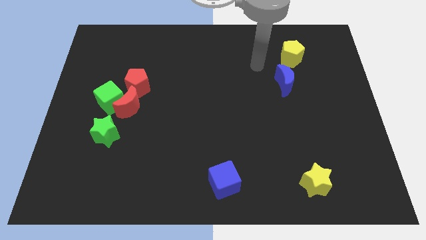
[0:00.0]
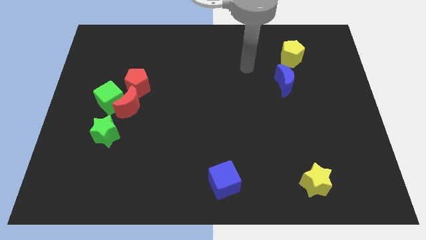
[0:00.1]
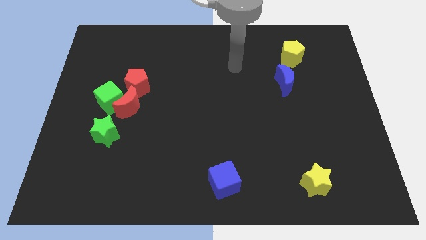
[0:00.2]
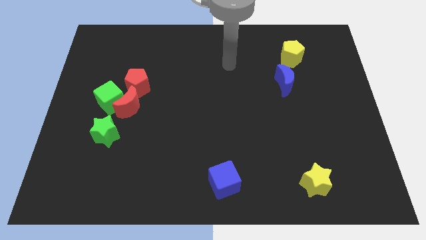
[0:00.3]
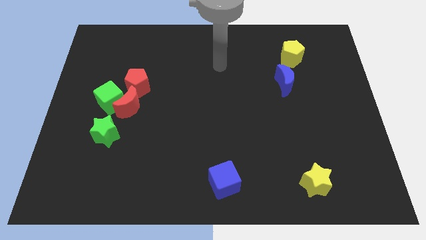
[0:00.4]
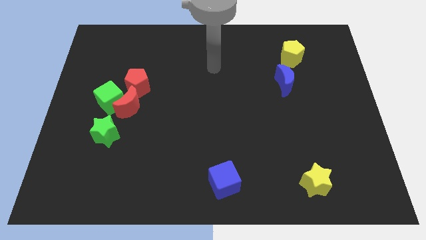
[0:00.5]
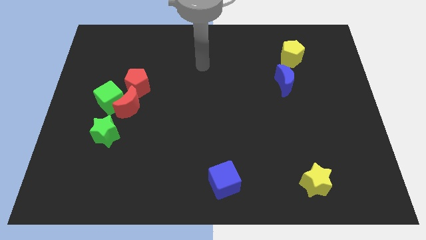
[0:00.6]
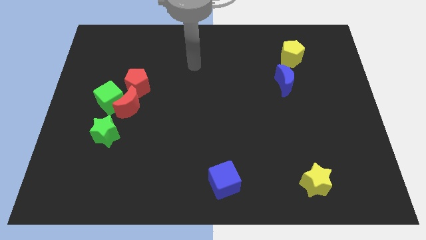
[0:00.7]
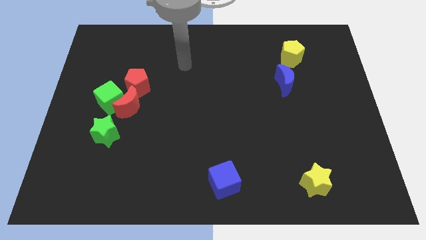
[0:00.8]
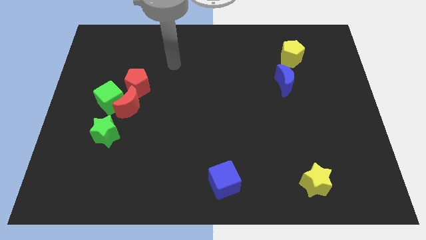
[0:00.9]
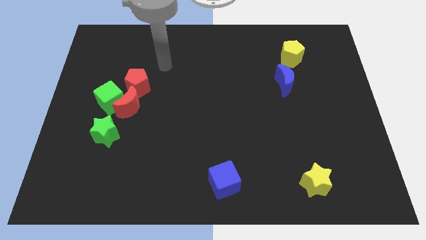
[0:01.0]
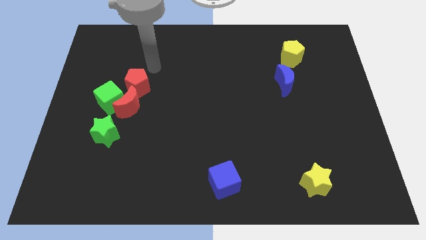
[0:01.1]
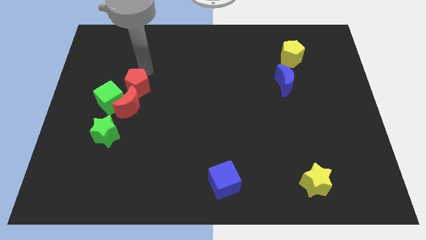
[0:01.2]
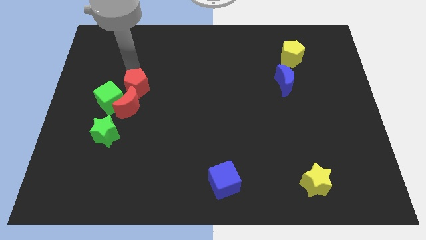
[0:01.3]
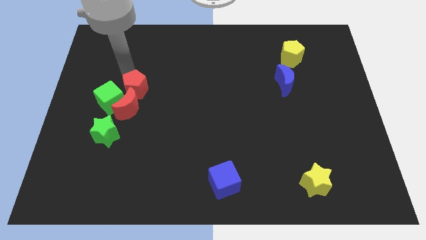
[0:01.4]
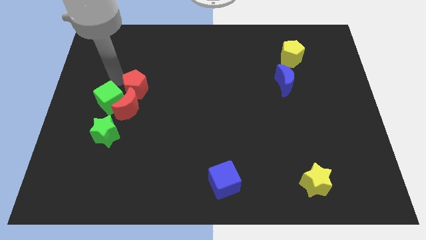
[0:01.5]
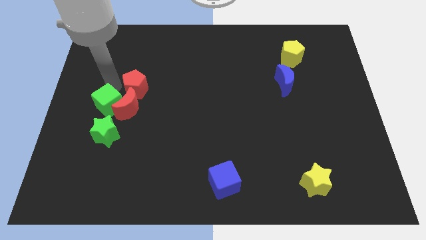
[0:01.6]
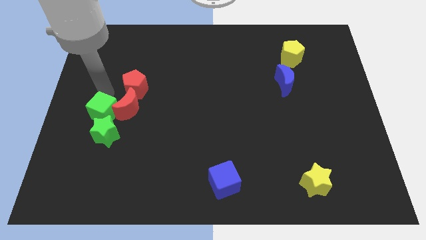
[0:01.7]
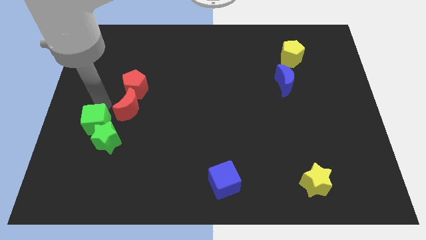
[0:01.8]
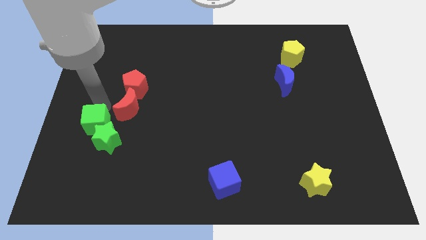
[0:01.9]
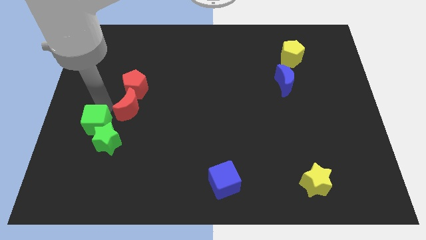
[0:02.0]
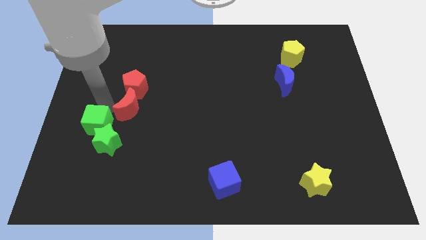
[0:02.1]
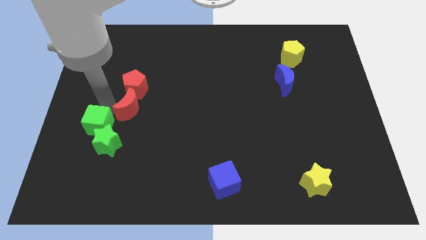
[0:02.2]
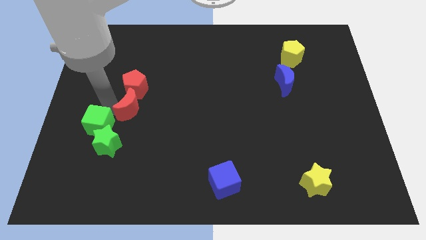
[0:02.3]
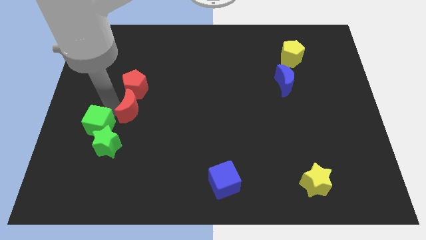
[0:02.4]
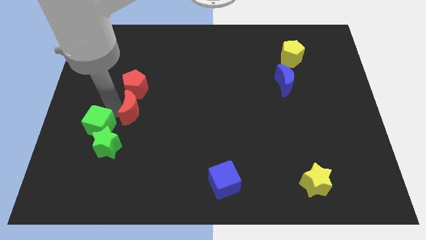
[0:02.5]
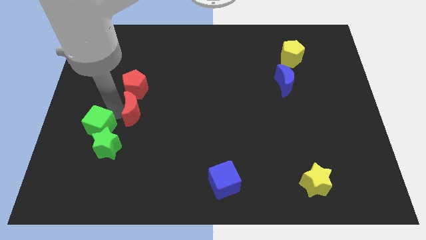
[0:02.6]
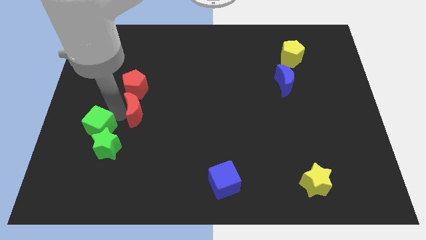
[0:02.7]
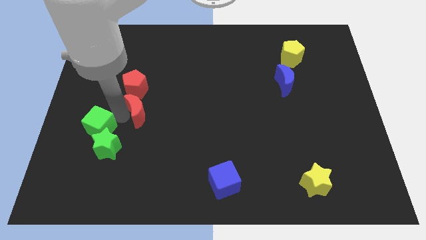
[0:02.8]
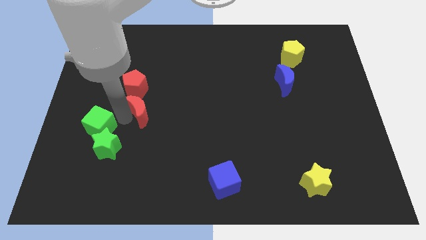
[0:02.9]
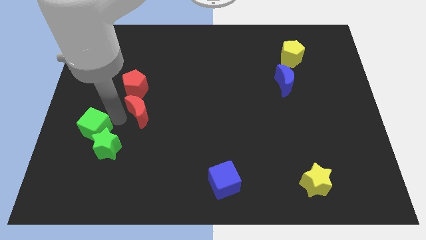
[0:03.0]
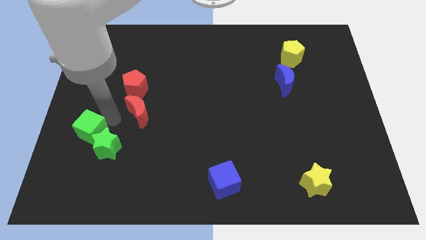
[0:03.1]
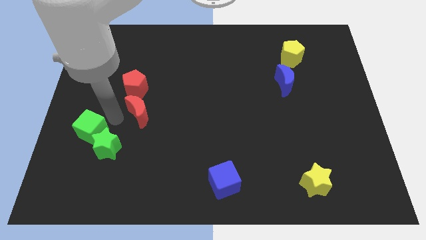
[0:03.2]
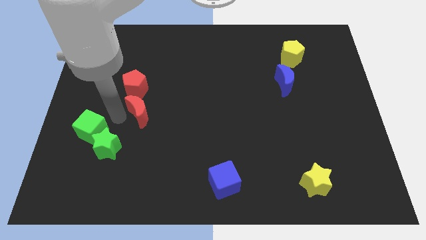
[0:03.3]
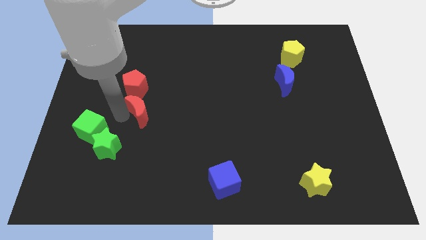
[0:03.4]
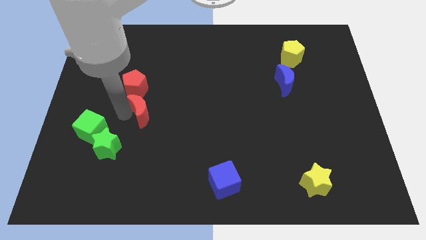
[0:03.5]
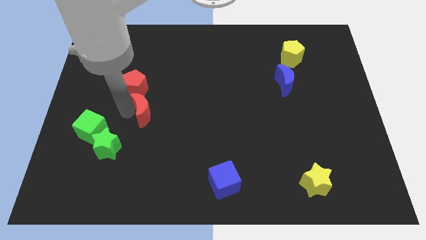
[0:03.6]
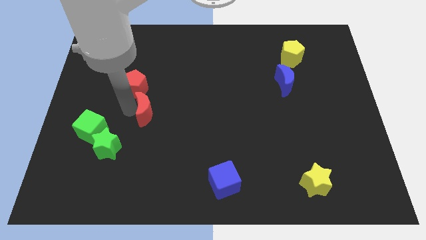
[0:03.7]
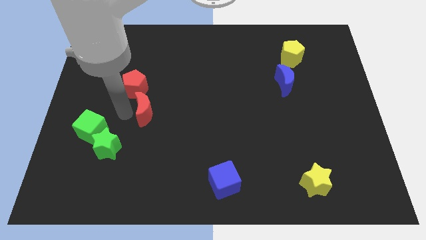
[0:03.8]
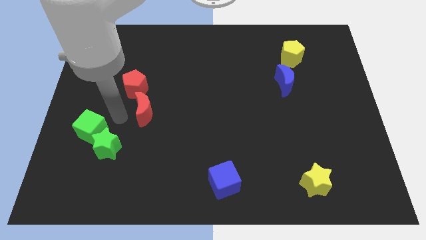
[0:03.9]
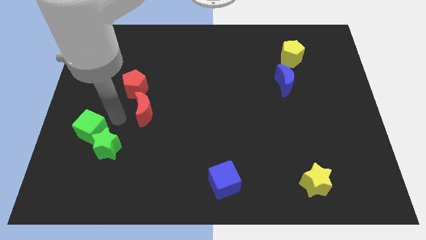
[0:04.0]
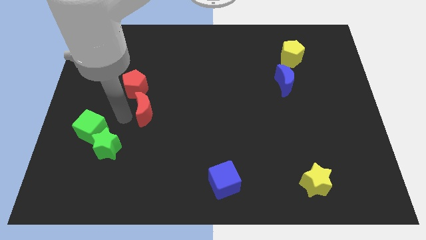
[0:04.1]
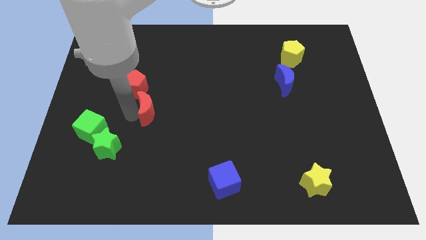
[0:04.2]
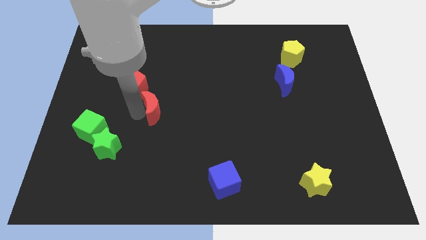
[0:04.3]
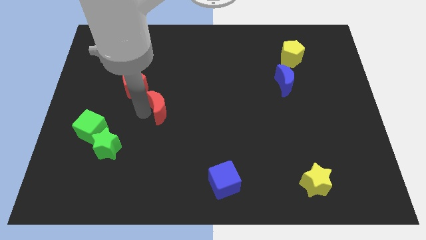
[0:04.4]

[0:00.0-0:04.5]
separate the red moon from the green cube, red pentagon, and green star

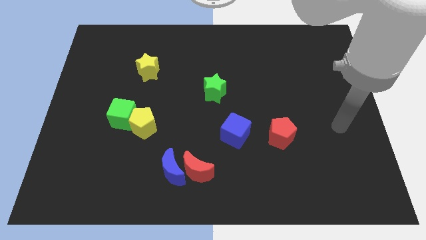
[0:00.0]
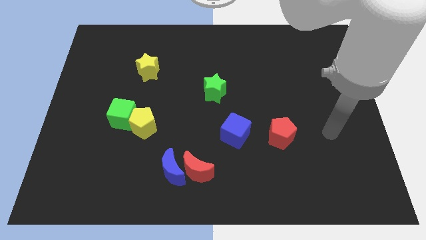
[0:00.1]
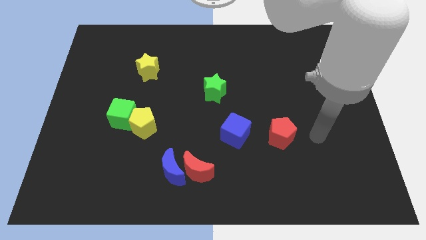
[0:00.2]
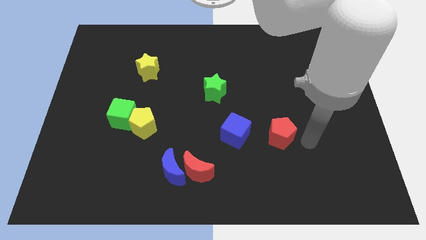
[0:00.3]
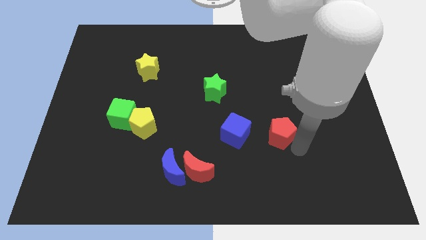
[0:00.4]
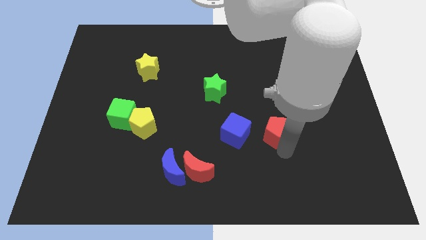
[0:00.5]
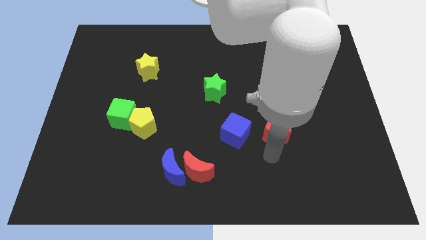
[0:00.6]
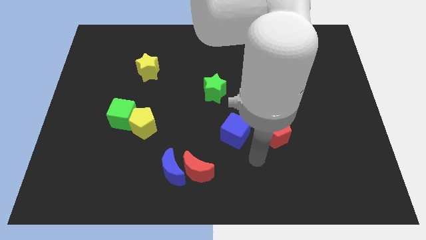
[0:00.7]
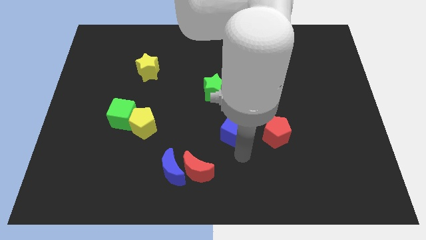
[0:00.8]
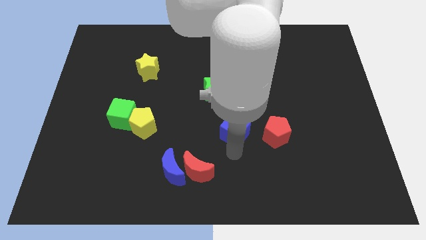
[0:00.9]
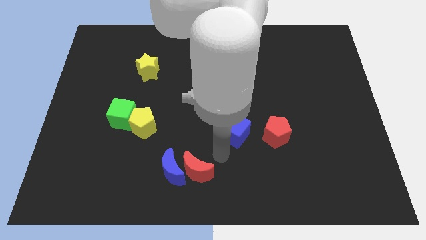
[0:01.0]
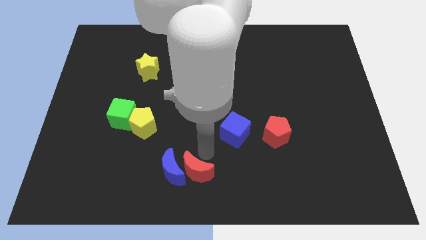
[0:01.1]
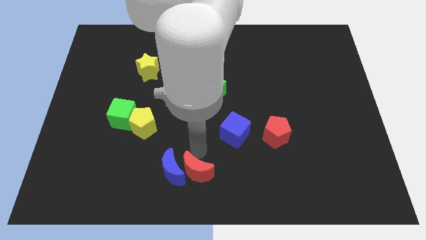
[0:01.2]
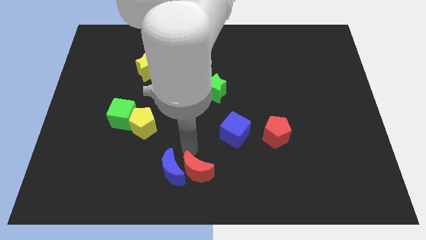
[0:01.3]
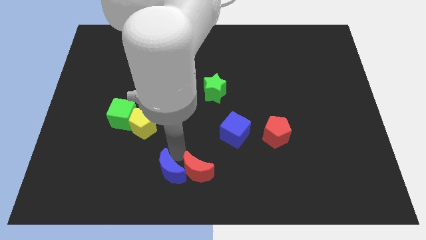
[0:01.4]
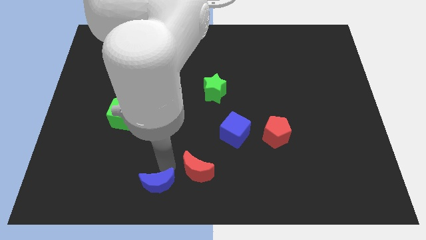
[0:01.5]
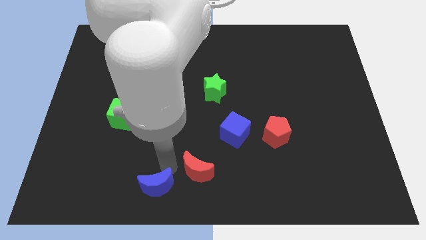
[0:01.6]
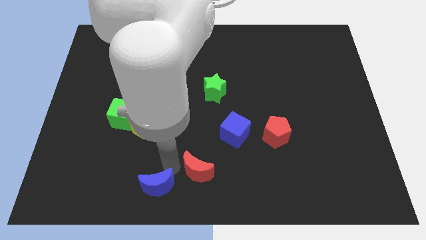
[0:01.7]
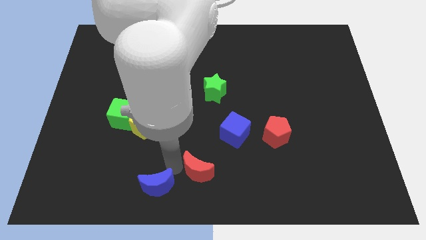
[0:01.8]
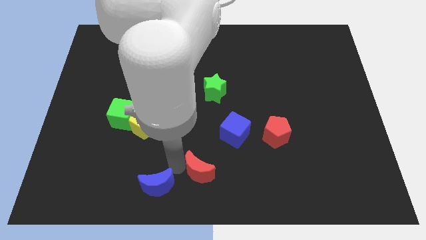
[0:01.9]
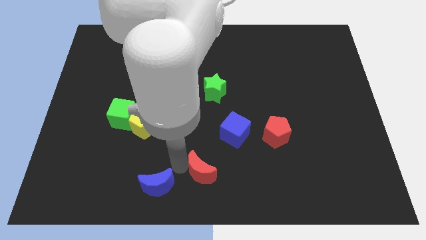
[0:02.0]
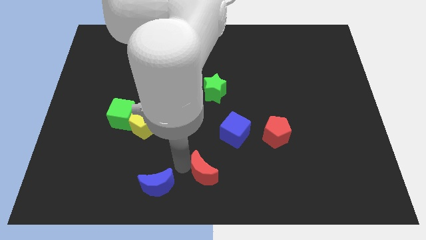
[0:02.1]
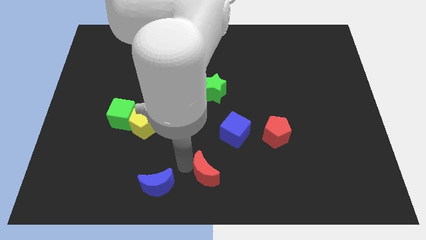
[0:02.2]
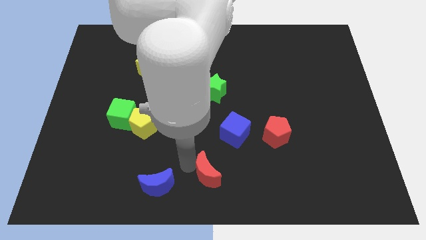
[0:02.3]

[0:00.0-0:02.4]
pull the red moon apart from the blue moon

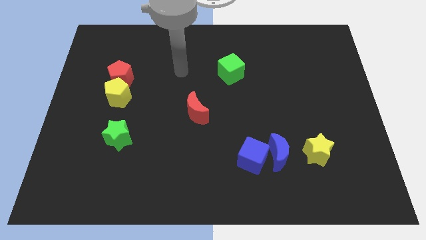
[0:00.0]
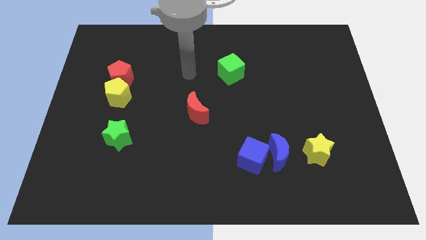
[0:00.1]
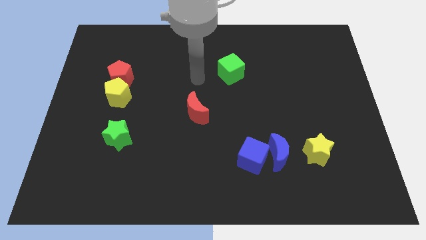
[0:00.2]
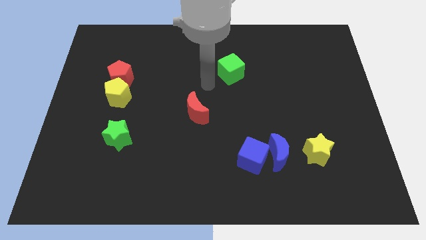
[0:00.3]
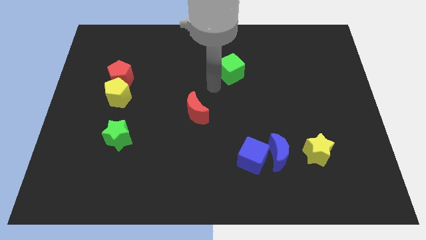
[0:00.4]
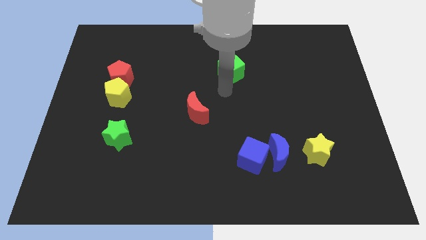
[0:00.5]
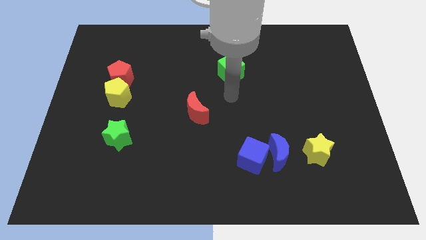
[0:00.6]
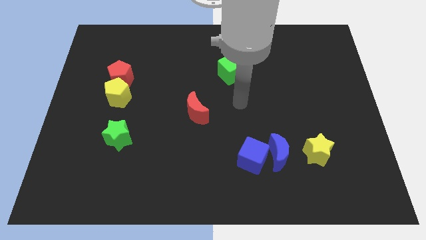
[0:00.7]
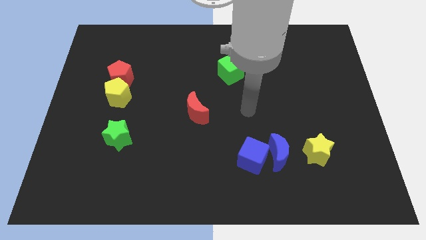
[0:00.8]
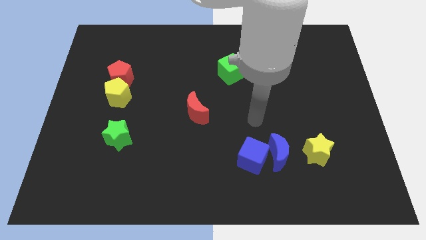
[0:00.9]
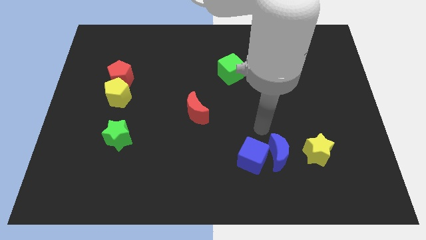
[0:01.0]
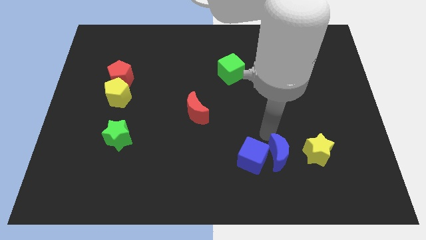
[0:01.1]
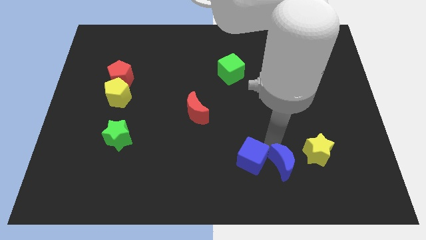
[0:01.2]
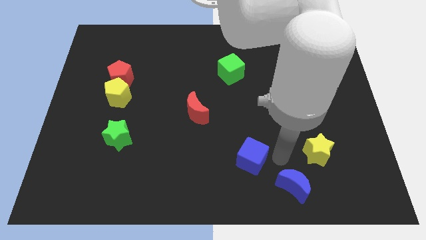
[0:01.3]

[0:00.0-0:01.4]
move the blue cube away from the blue moon

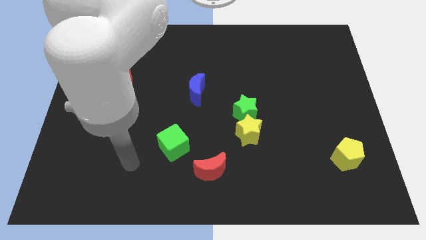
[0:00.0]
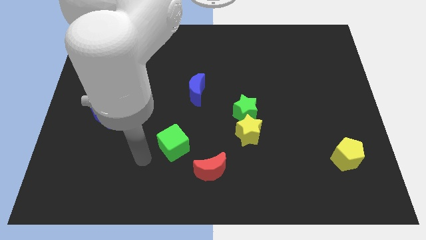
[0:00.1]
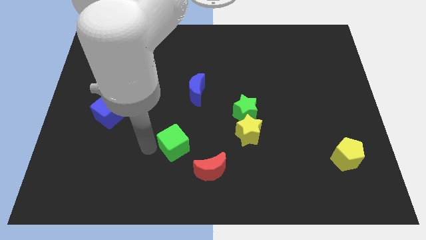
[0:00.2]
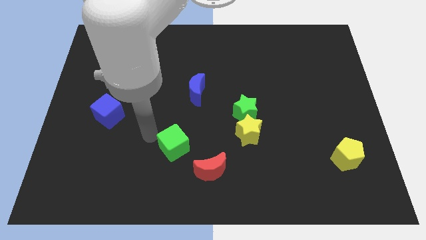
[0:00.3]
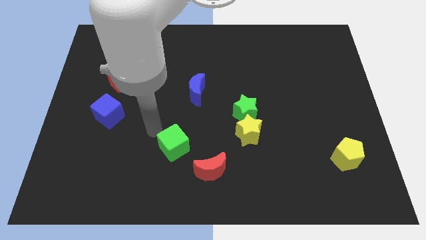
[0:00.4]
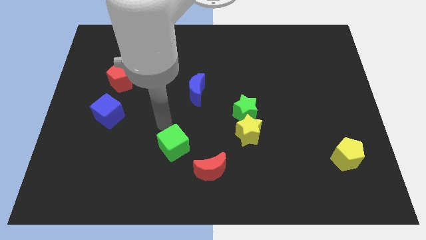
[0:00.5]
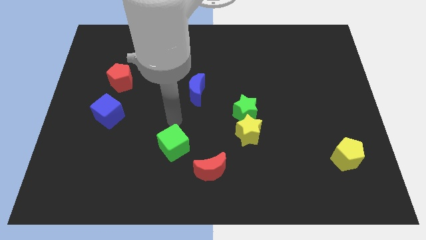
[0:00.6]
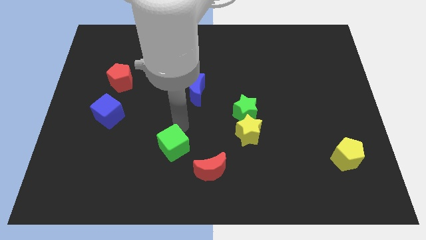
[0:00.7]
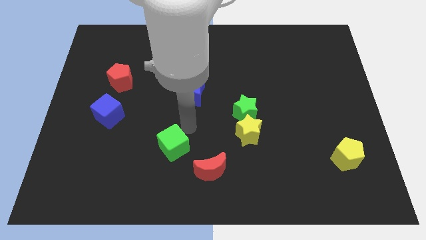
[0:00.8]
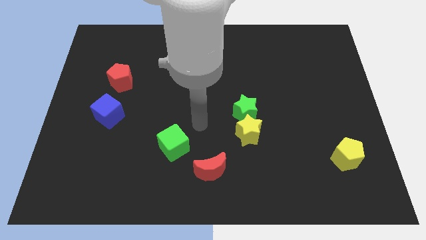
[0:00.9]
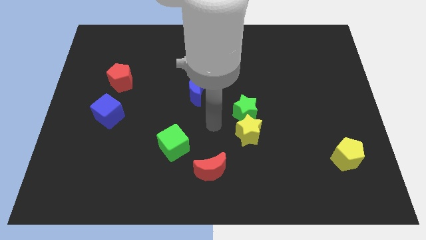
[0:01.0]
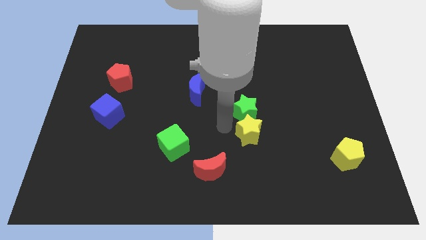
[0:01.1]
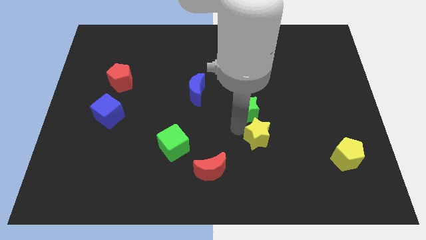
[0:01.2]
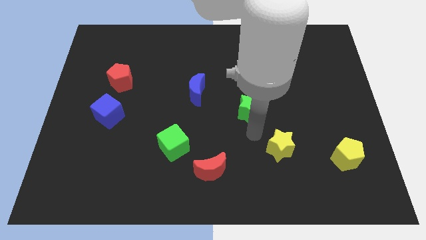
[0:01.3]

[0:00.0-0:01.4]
pull the green star apart from the yellow star
